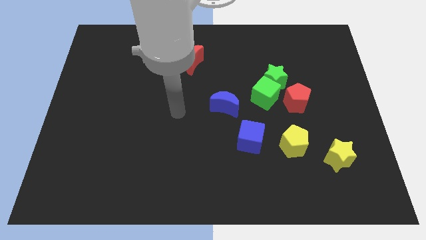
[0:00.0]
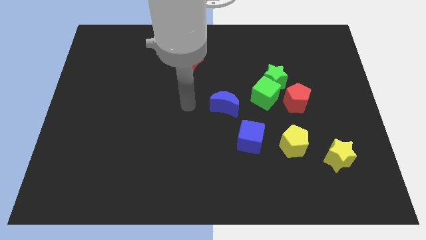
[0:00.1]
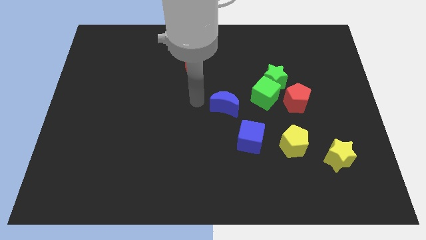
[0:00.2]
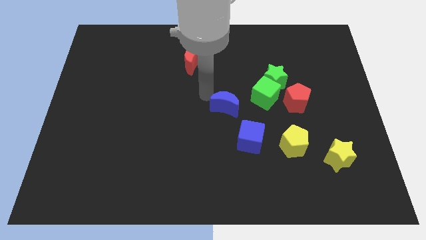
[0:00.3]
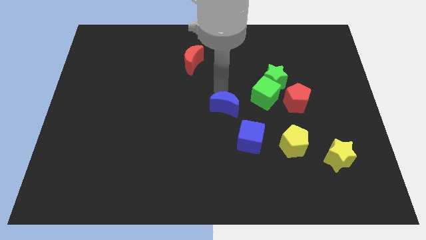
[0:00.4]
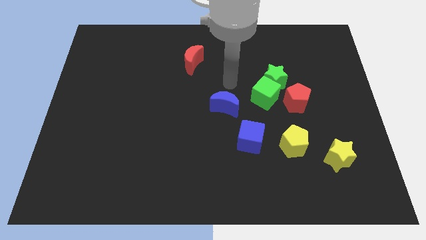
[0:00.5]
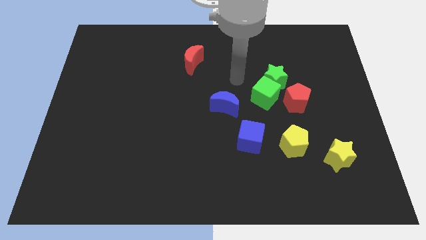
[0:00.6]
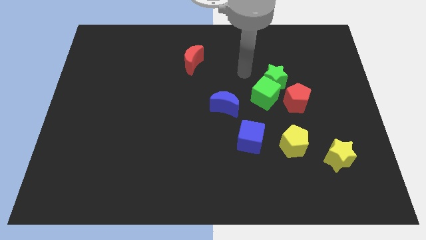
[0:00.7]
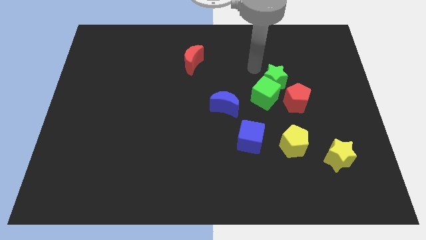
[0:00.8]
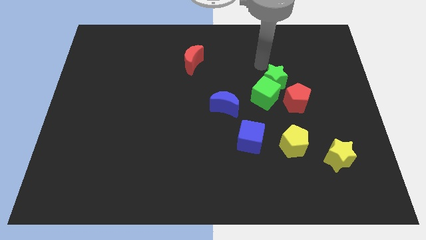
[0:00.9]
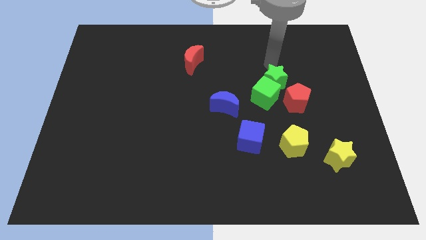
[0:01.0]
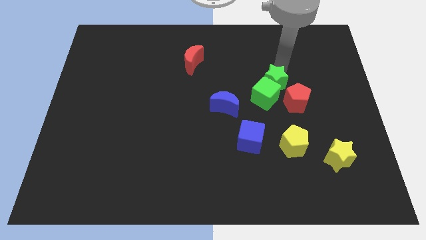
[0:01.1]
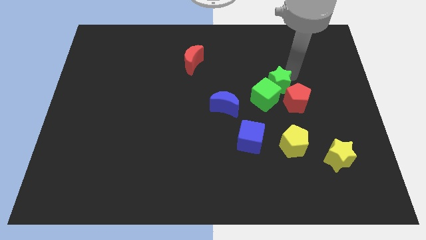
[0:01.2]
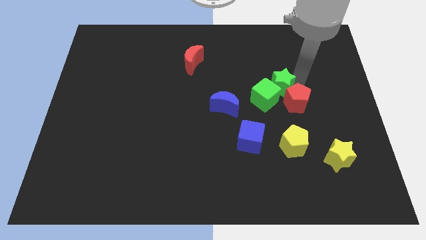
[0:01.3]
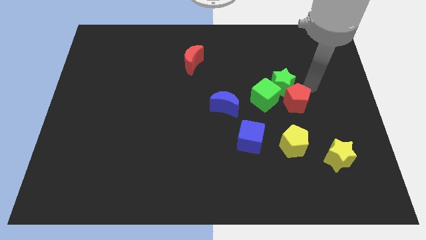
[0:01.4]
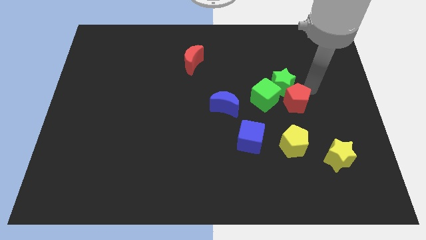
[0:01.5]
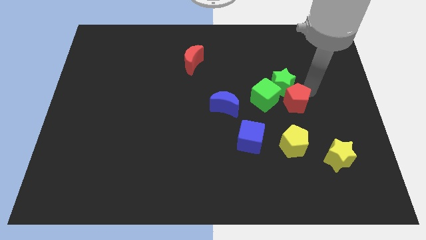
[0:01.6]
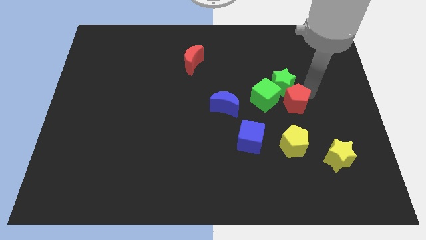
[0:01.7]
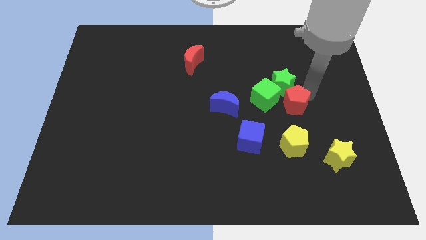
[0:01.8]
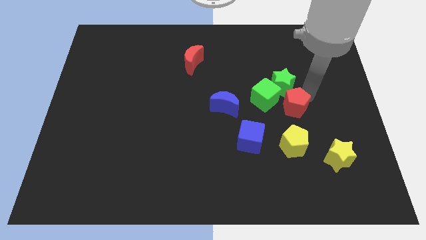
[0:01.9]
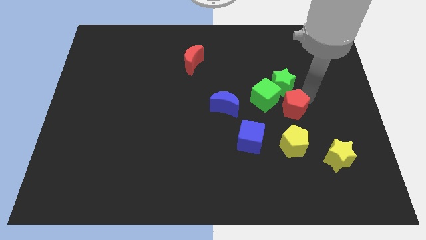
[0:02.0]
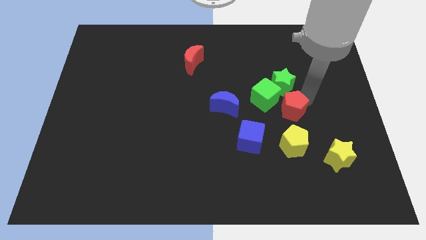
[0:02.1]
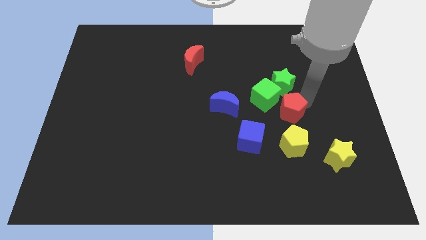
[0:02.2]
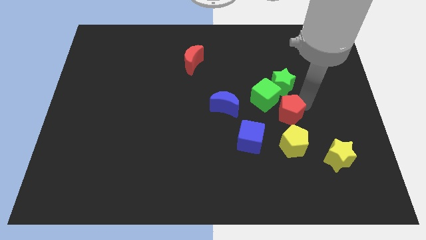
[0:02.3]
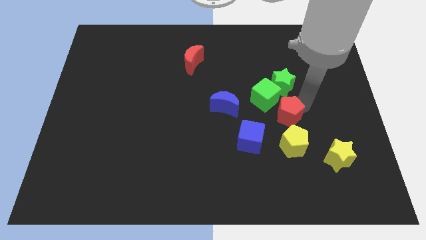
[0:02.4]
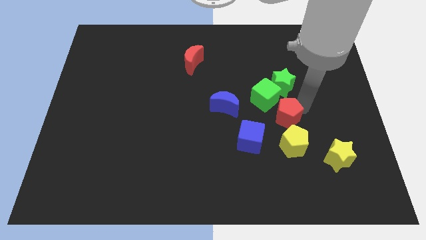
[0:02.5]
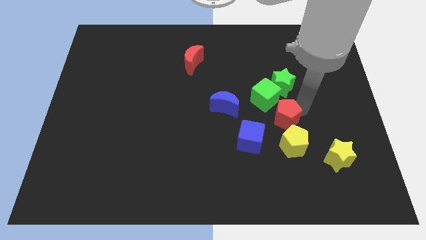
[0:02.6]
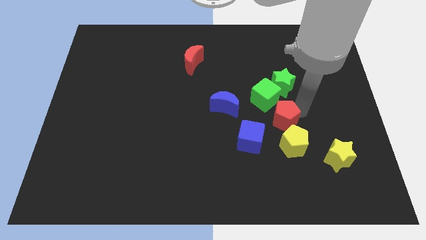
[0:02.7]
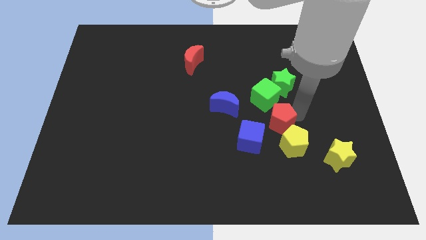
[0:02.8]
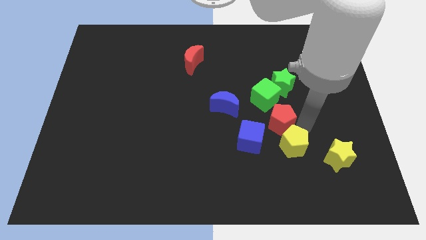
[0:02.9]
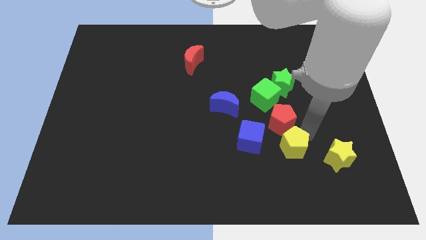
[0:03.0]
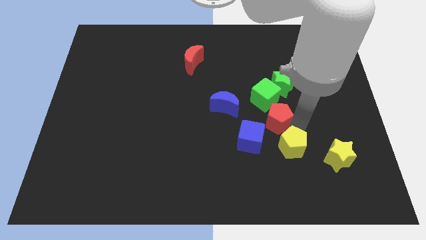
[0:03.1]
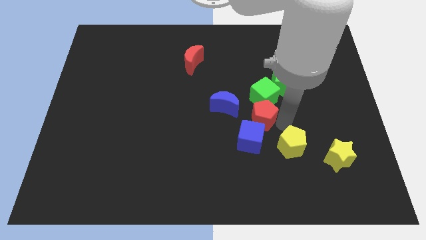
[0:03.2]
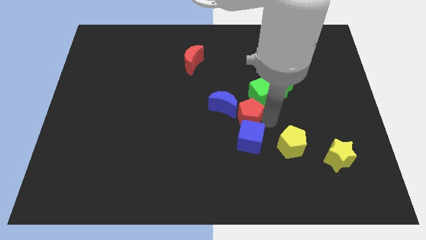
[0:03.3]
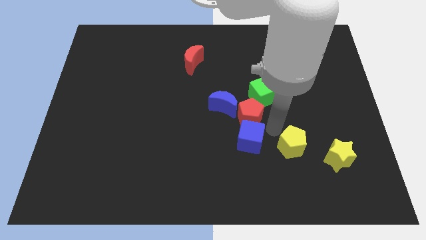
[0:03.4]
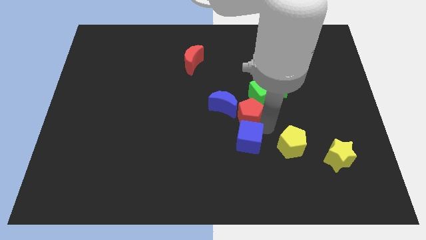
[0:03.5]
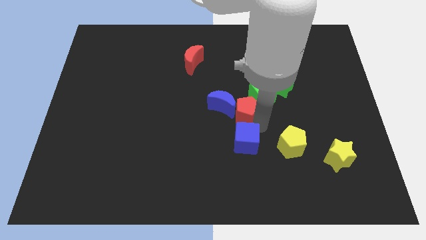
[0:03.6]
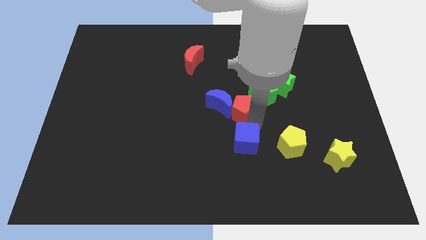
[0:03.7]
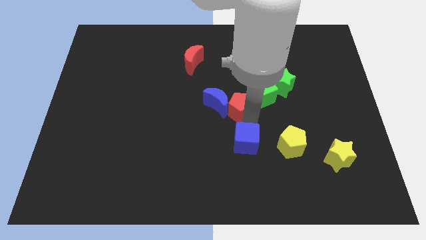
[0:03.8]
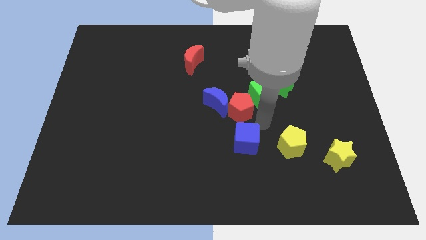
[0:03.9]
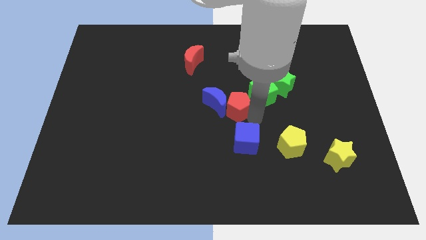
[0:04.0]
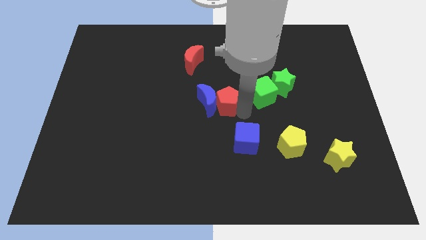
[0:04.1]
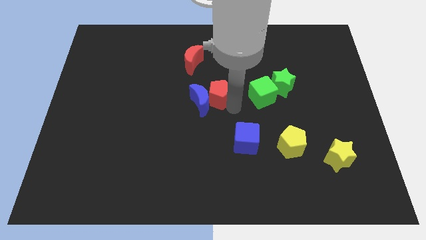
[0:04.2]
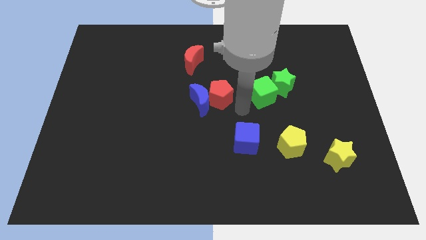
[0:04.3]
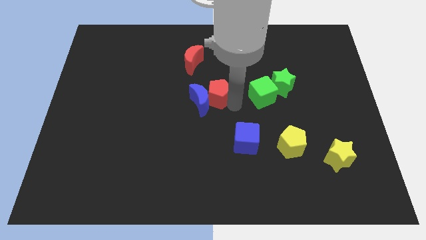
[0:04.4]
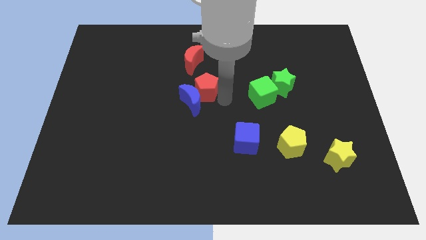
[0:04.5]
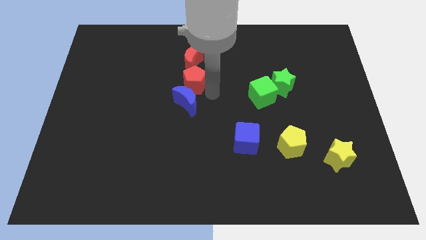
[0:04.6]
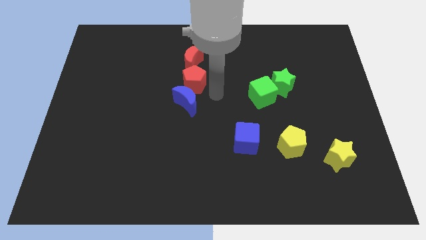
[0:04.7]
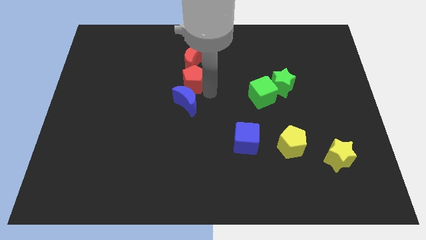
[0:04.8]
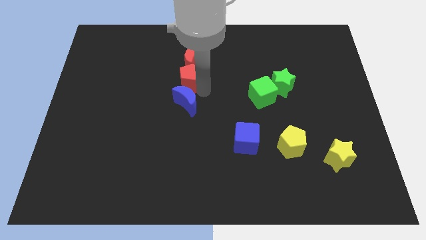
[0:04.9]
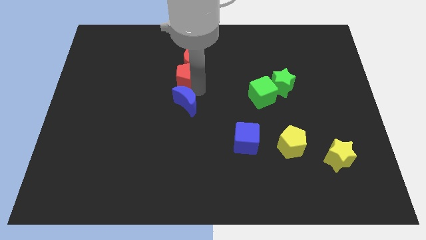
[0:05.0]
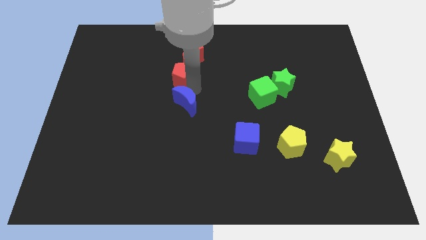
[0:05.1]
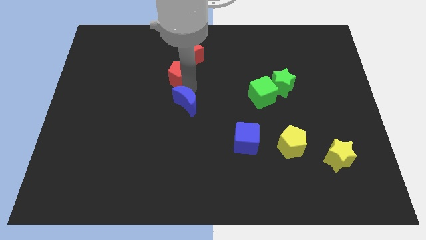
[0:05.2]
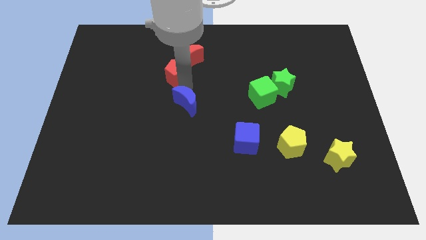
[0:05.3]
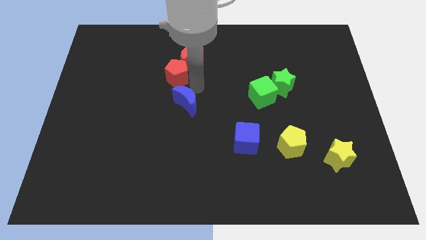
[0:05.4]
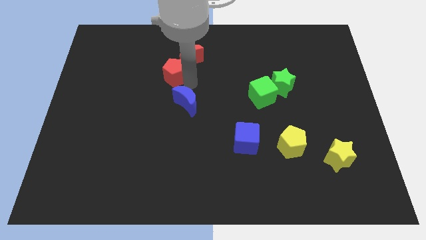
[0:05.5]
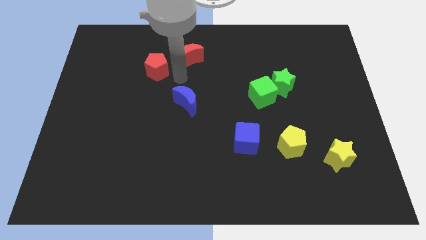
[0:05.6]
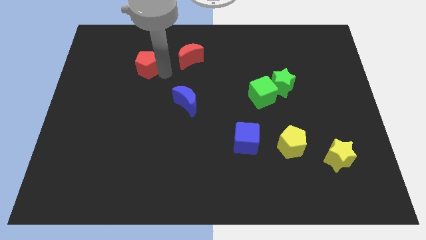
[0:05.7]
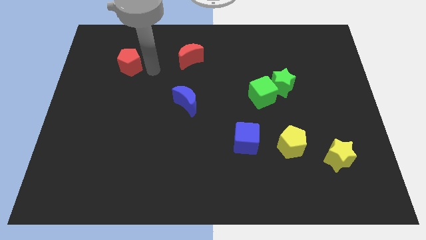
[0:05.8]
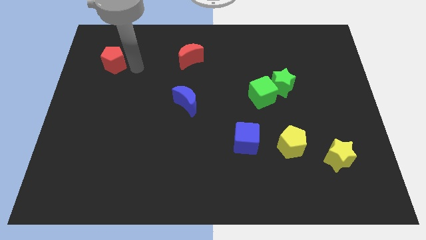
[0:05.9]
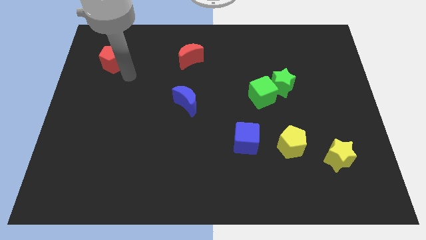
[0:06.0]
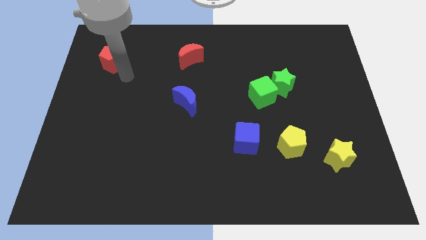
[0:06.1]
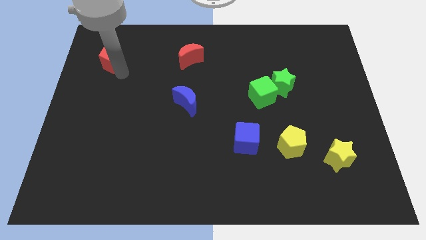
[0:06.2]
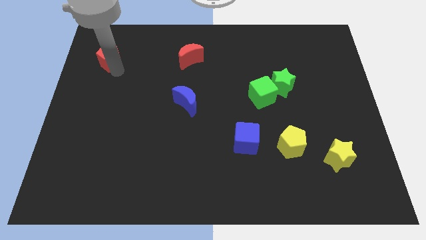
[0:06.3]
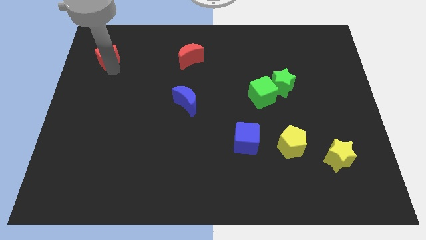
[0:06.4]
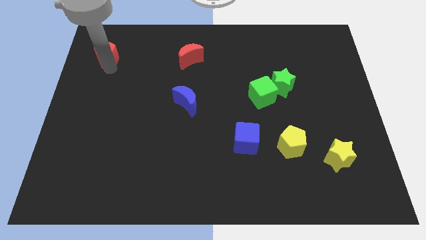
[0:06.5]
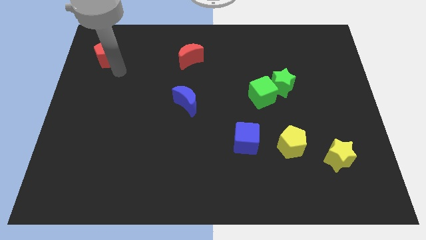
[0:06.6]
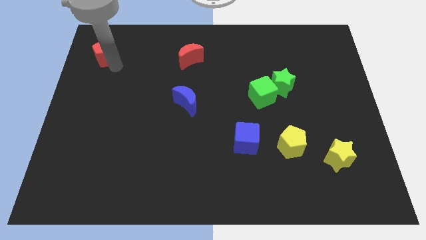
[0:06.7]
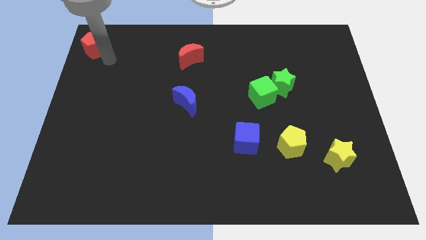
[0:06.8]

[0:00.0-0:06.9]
push the red pentagon to the top left corner

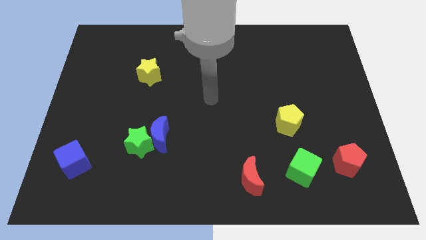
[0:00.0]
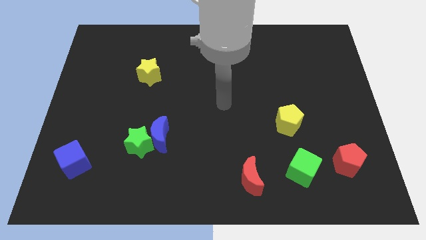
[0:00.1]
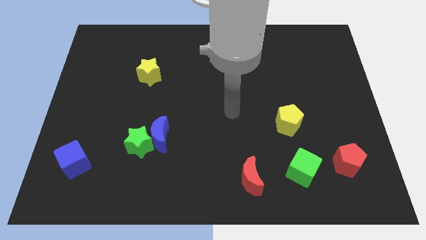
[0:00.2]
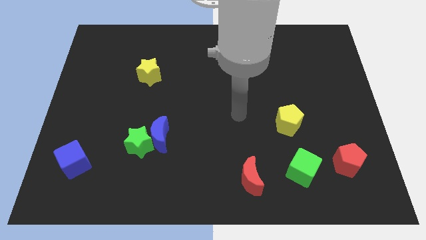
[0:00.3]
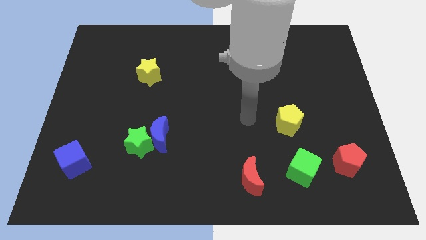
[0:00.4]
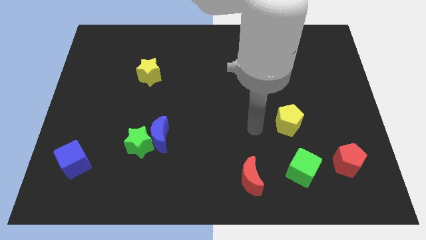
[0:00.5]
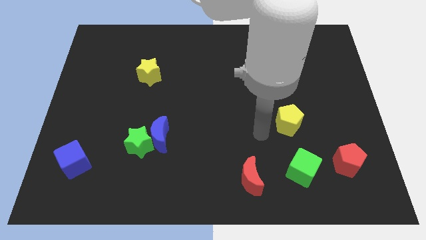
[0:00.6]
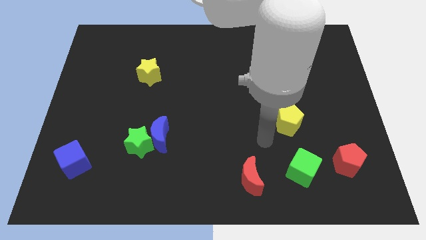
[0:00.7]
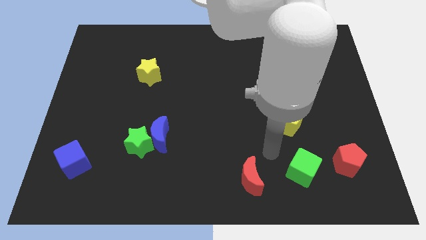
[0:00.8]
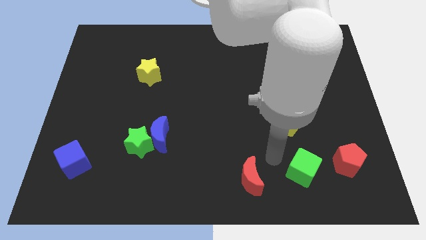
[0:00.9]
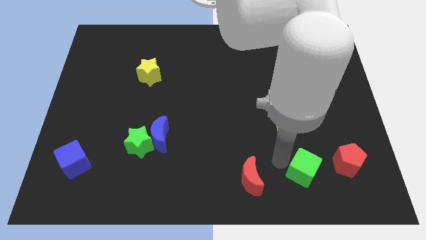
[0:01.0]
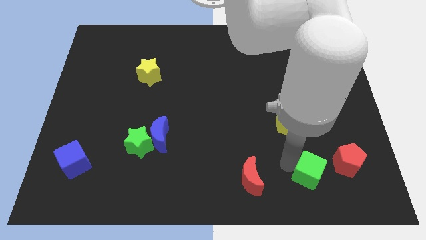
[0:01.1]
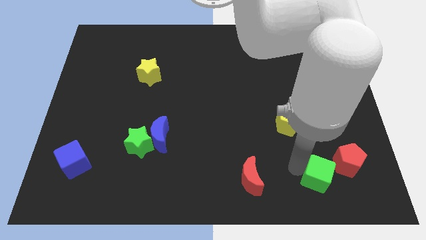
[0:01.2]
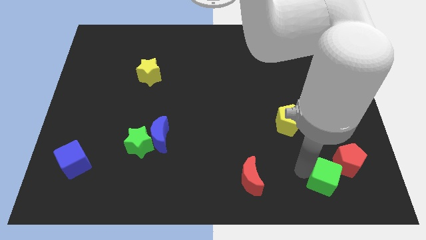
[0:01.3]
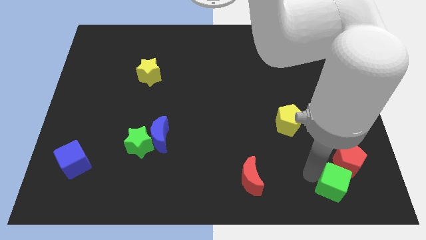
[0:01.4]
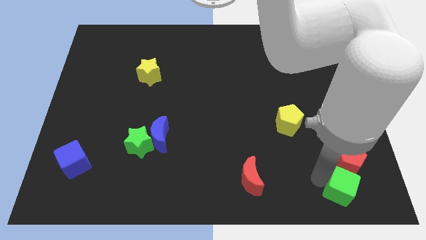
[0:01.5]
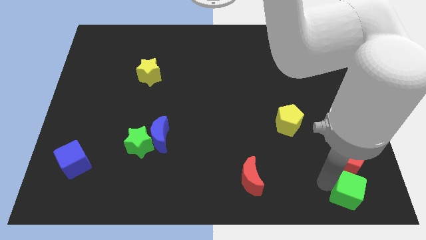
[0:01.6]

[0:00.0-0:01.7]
slide the green cube to the bottom right of the board
